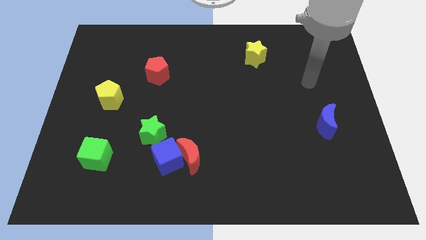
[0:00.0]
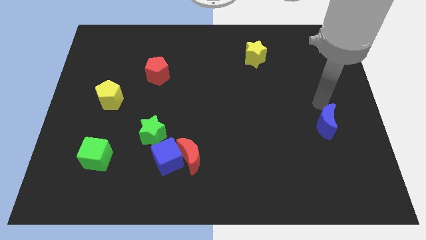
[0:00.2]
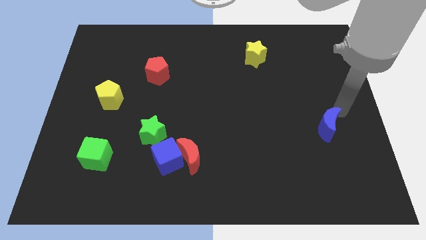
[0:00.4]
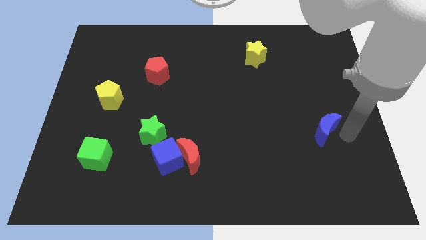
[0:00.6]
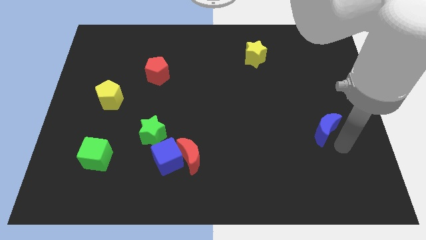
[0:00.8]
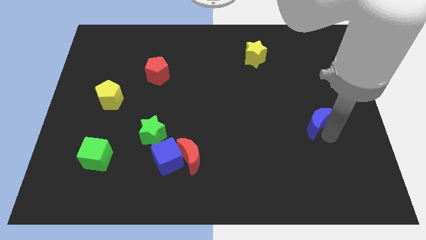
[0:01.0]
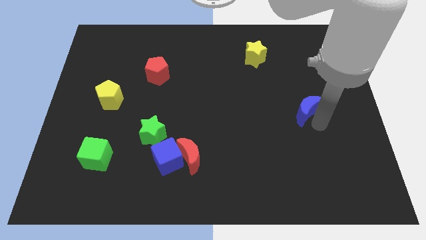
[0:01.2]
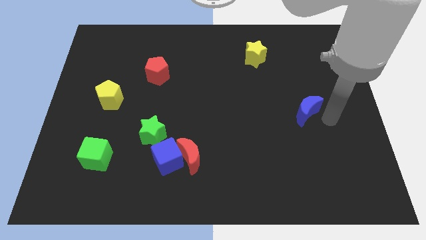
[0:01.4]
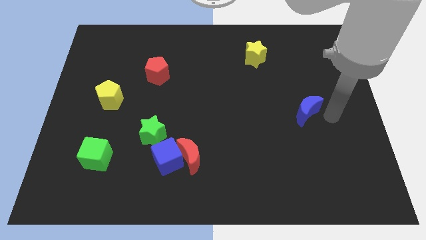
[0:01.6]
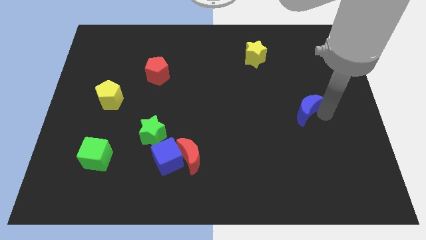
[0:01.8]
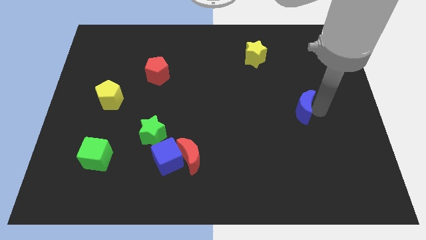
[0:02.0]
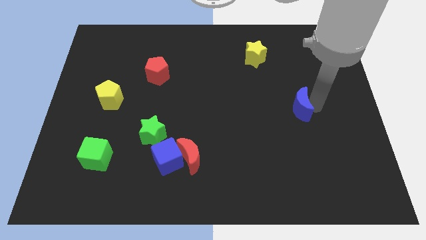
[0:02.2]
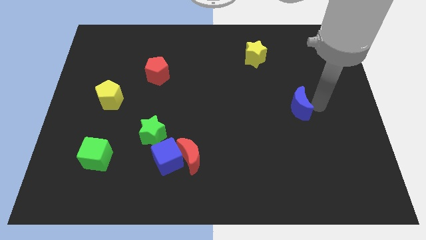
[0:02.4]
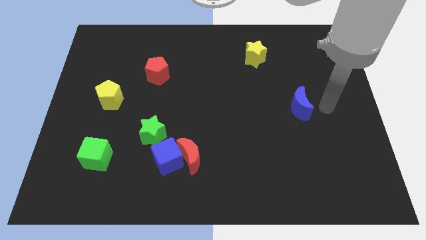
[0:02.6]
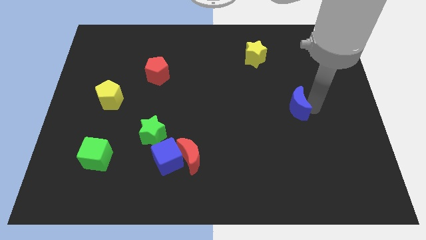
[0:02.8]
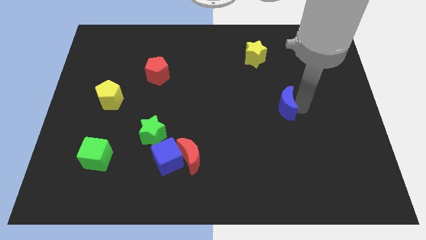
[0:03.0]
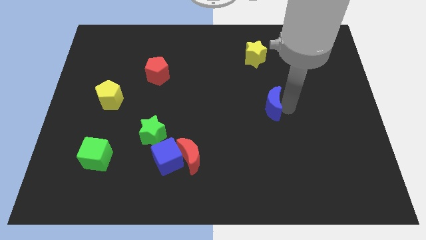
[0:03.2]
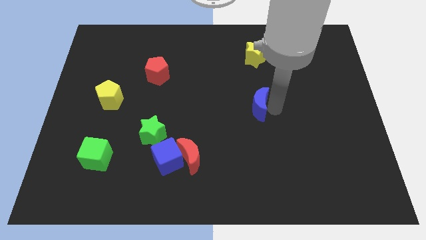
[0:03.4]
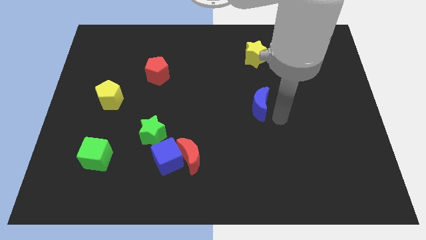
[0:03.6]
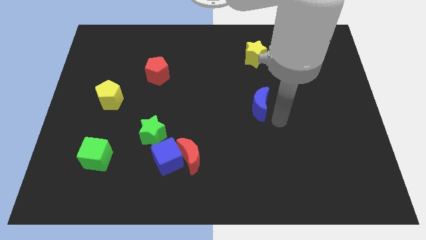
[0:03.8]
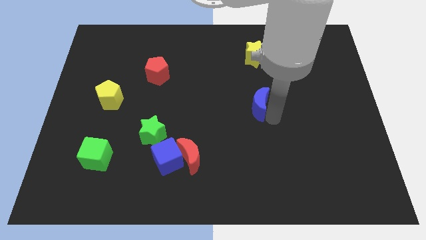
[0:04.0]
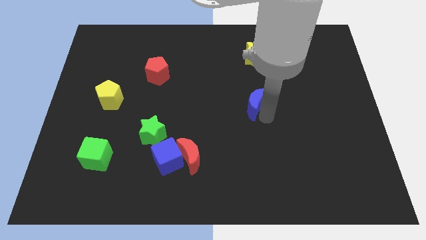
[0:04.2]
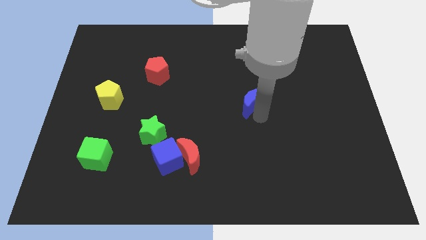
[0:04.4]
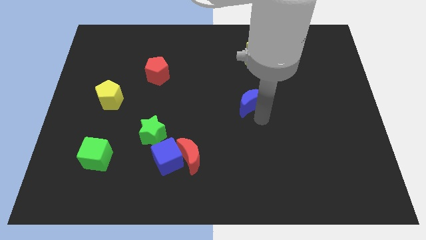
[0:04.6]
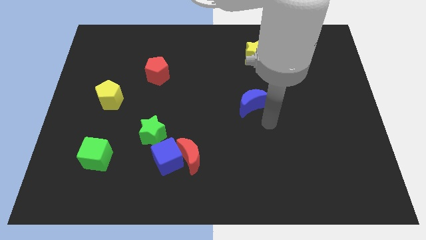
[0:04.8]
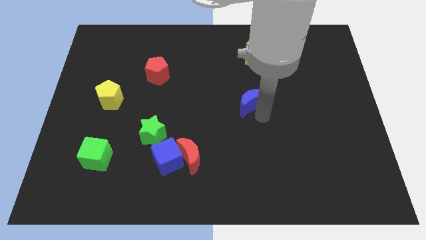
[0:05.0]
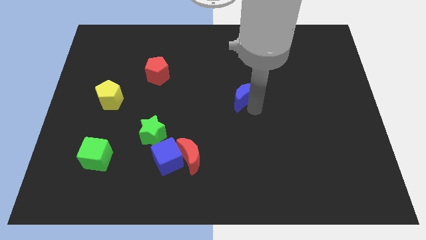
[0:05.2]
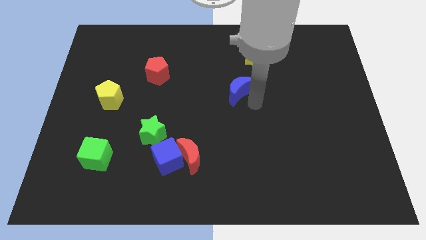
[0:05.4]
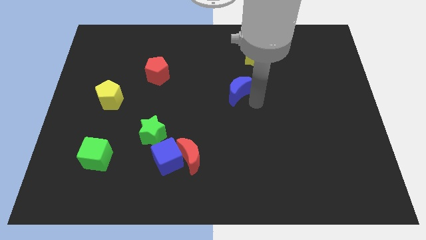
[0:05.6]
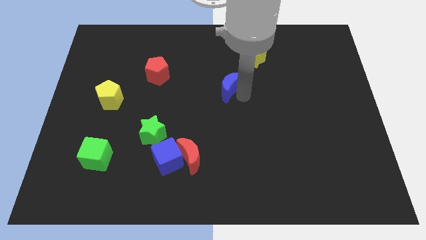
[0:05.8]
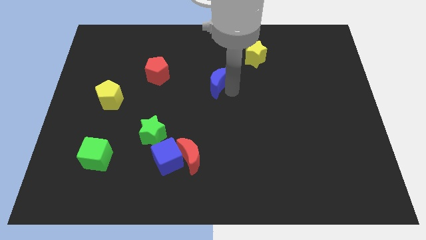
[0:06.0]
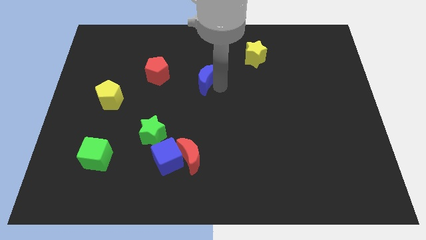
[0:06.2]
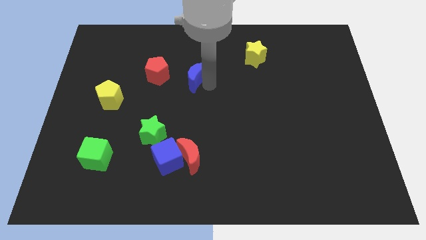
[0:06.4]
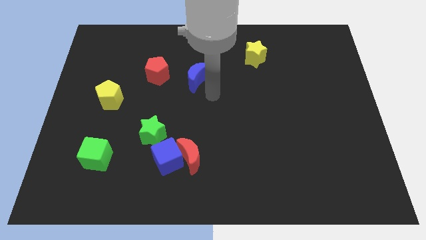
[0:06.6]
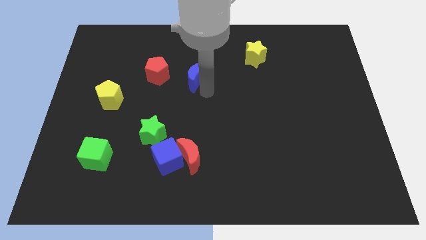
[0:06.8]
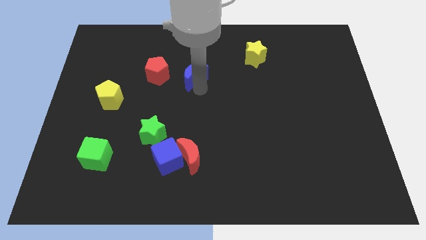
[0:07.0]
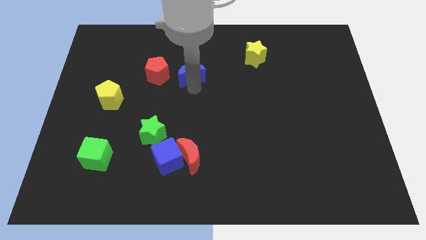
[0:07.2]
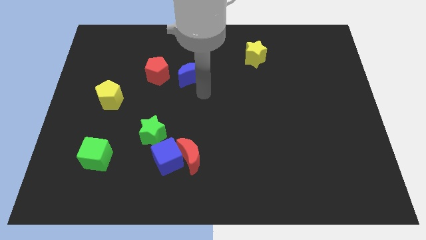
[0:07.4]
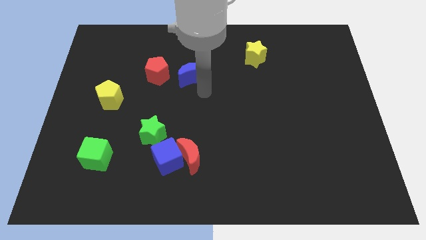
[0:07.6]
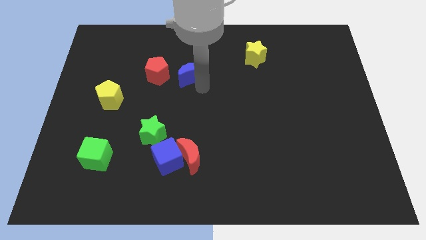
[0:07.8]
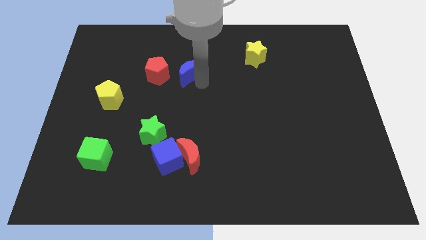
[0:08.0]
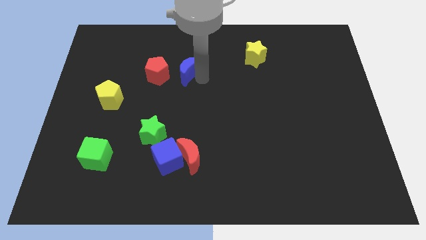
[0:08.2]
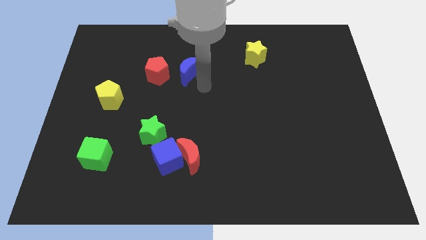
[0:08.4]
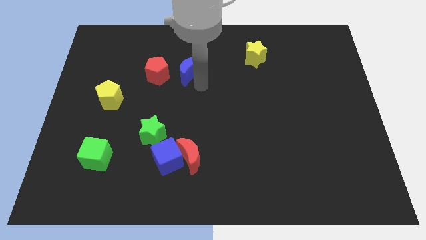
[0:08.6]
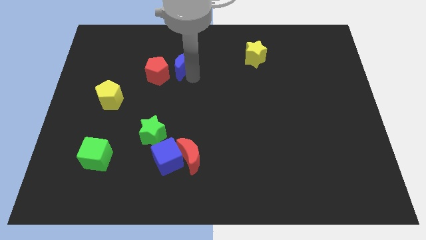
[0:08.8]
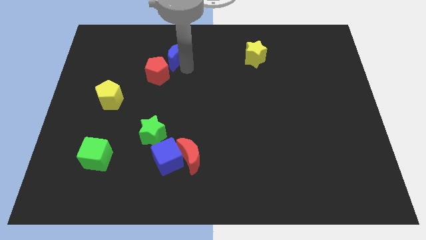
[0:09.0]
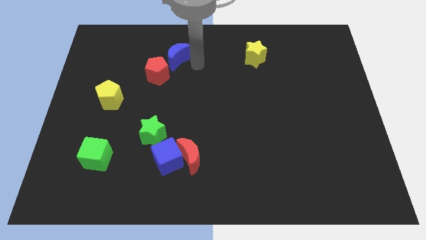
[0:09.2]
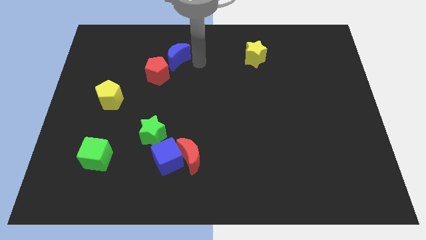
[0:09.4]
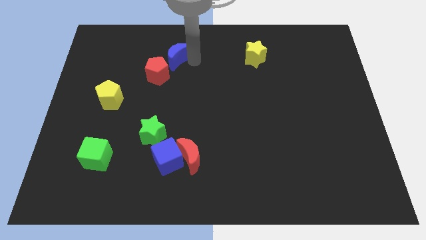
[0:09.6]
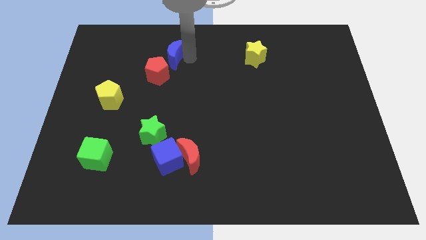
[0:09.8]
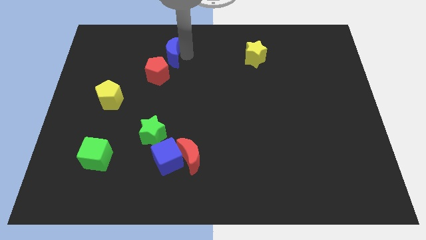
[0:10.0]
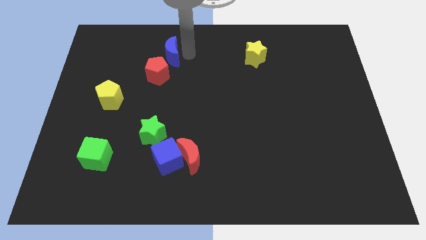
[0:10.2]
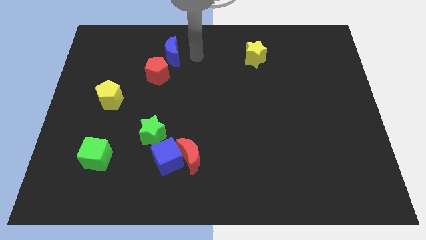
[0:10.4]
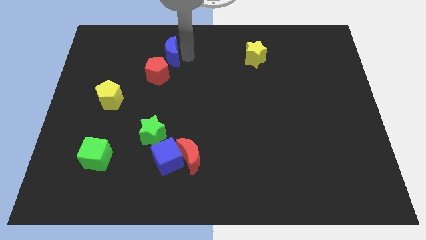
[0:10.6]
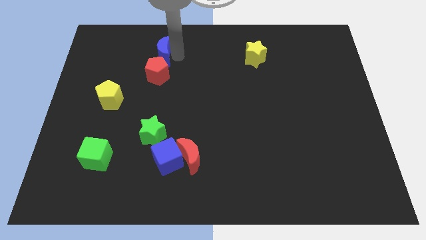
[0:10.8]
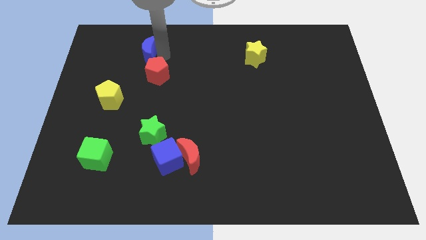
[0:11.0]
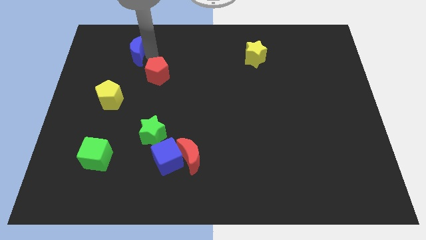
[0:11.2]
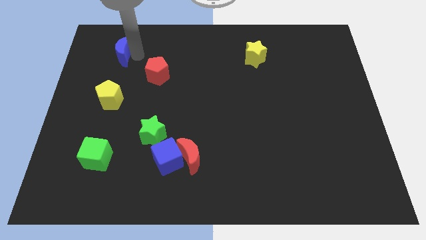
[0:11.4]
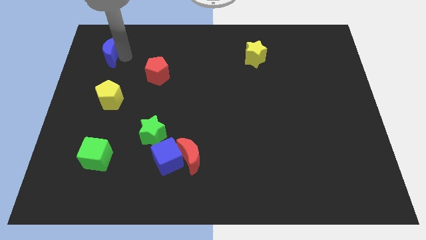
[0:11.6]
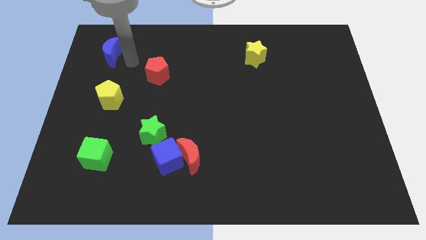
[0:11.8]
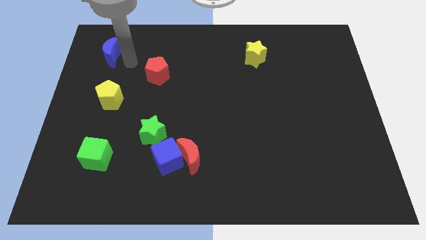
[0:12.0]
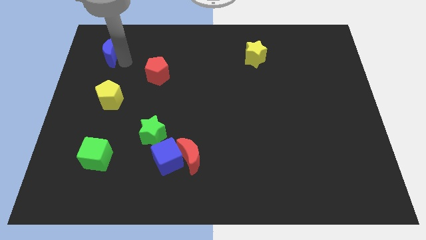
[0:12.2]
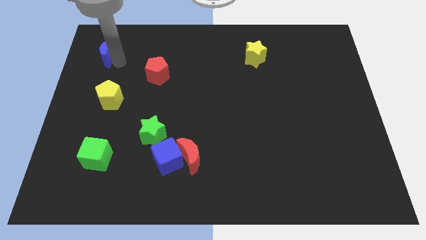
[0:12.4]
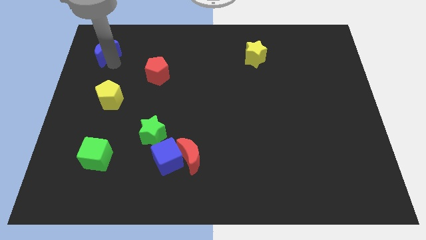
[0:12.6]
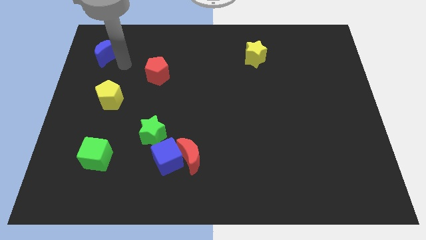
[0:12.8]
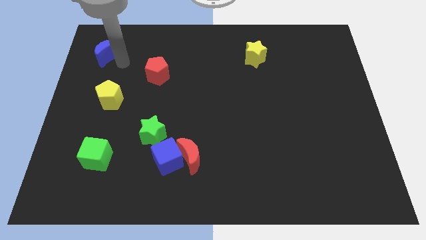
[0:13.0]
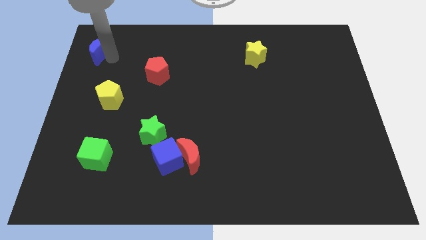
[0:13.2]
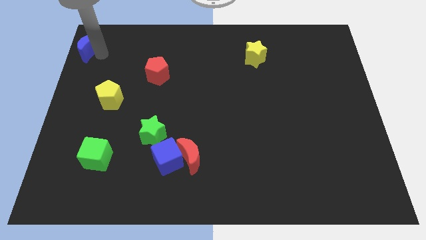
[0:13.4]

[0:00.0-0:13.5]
slide the blue moon to the top left of the board
